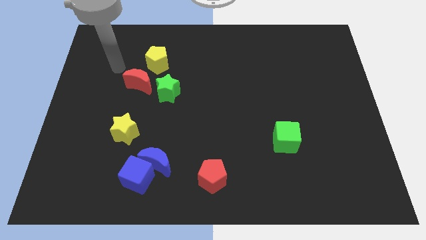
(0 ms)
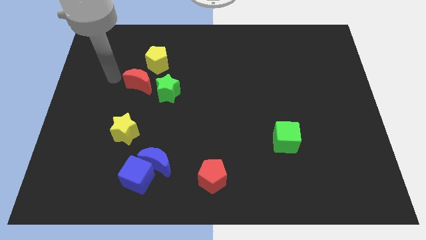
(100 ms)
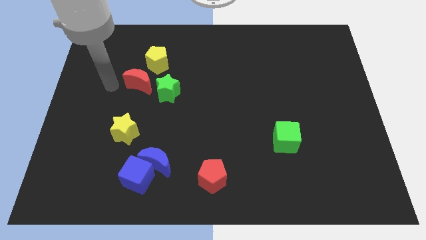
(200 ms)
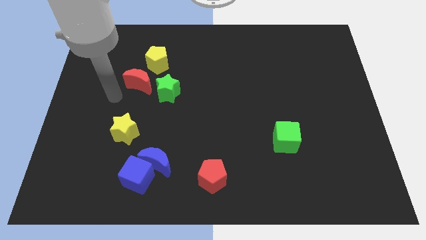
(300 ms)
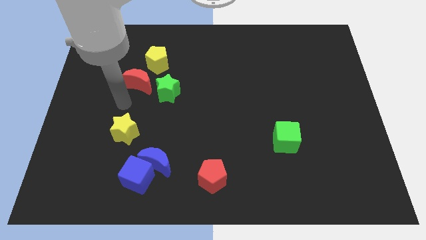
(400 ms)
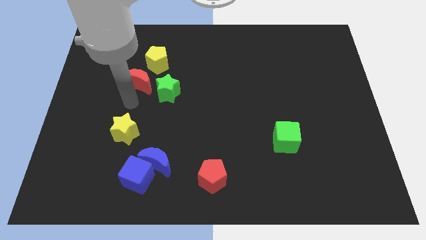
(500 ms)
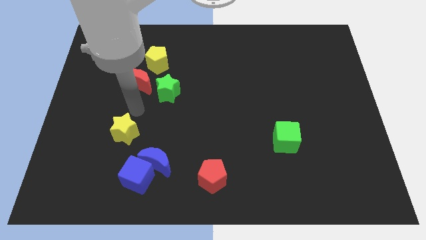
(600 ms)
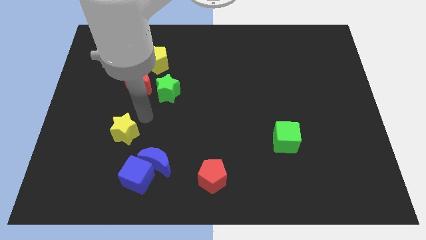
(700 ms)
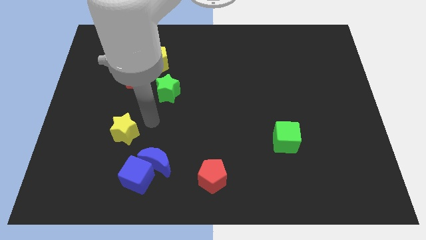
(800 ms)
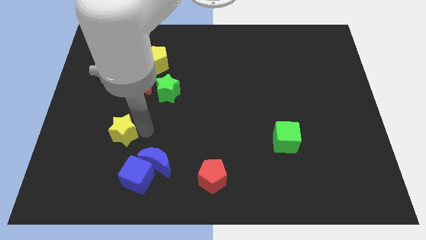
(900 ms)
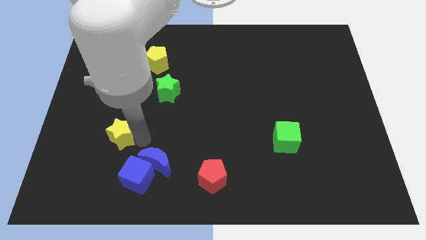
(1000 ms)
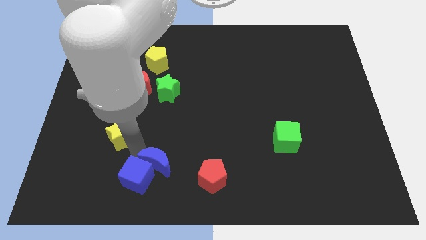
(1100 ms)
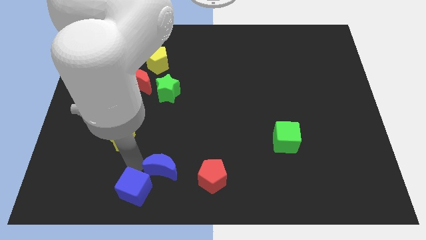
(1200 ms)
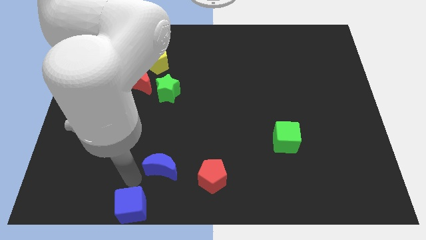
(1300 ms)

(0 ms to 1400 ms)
move the blue moon away from the blue cube

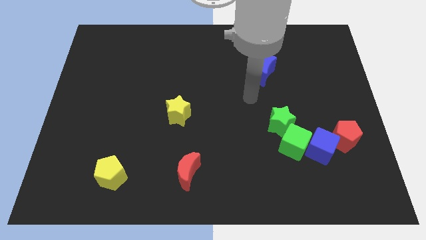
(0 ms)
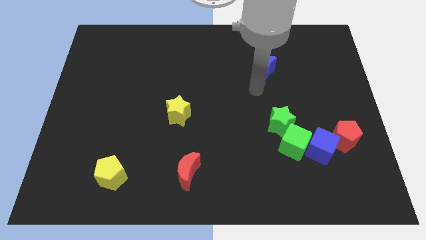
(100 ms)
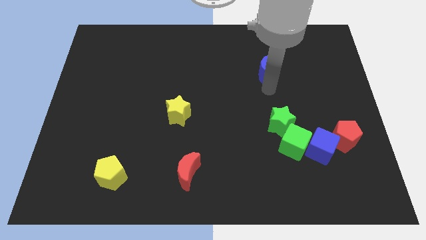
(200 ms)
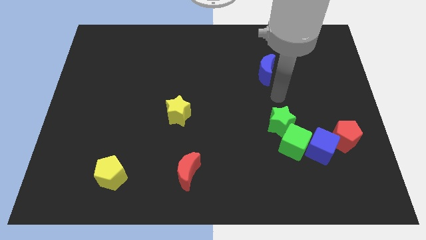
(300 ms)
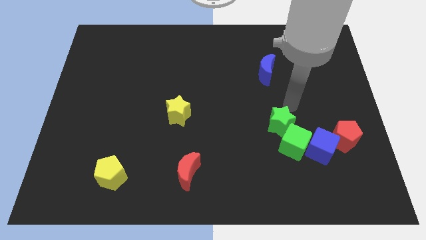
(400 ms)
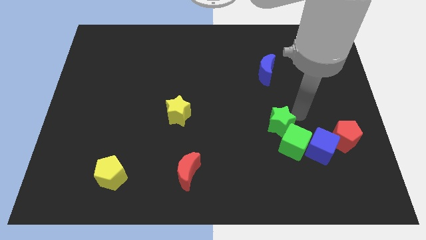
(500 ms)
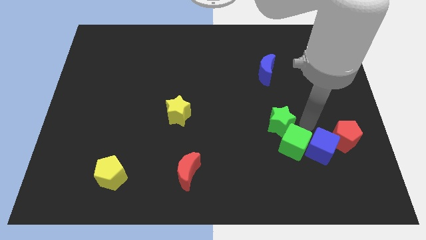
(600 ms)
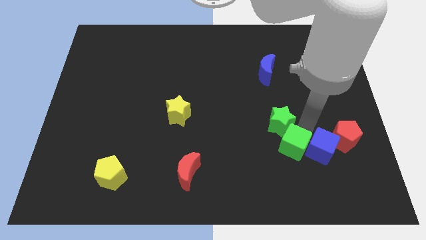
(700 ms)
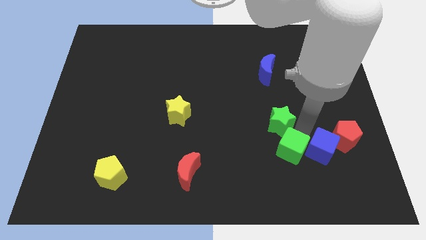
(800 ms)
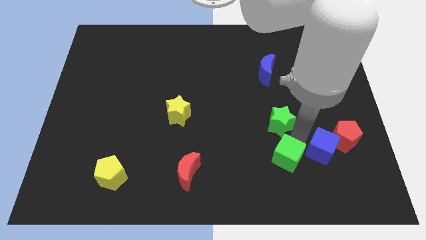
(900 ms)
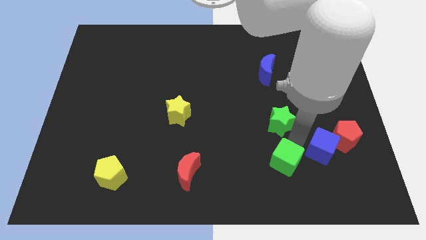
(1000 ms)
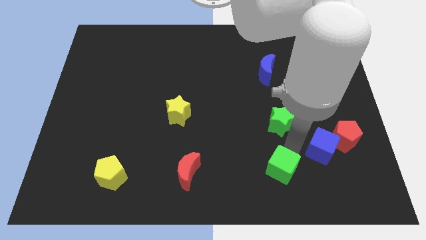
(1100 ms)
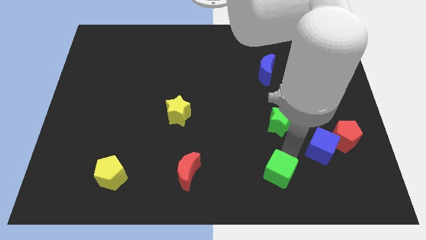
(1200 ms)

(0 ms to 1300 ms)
move the green cube away from the blue cube and green star

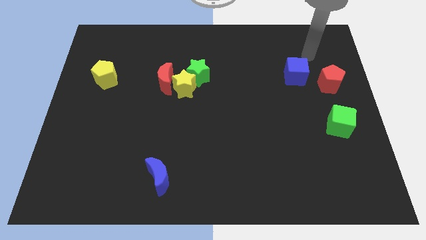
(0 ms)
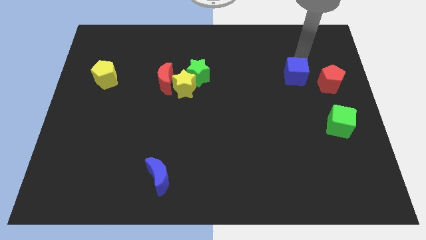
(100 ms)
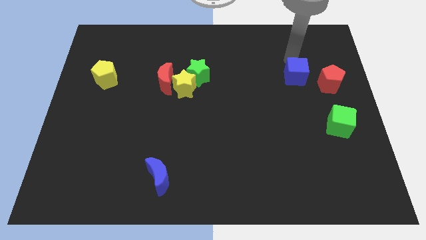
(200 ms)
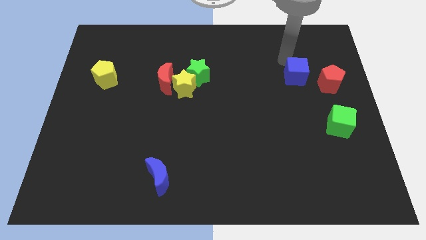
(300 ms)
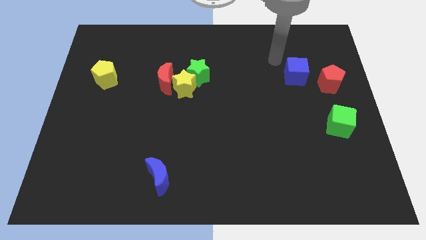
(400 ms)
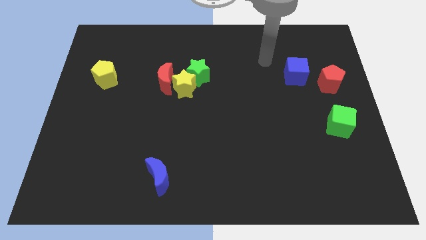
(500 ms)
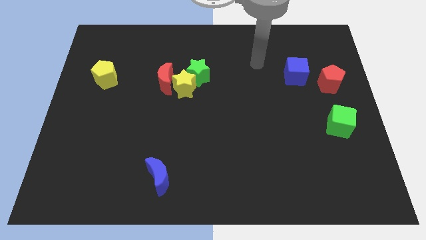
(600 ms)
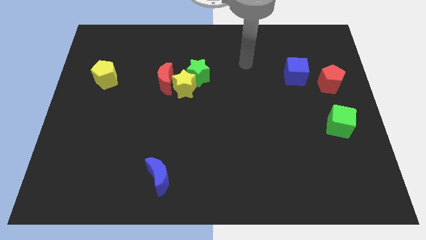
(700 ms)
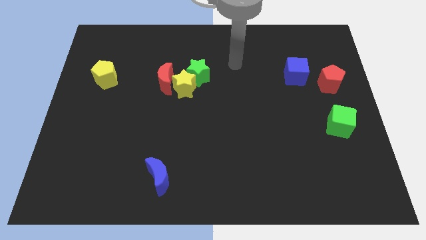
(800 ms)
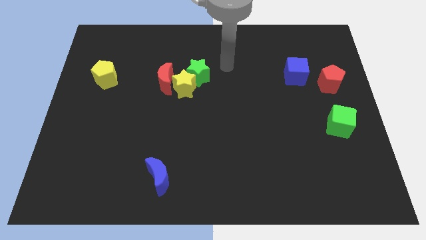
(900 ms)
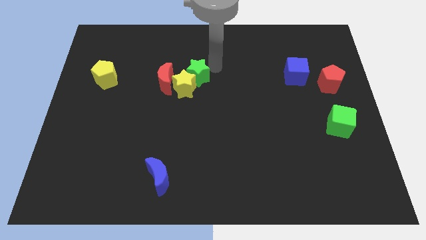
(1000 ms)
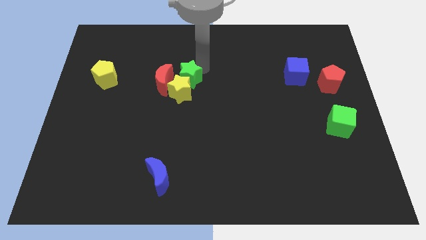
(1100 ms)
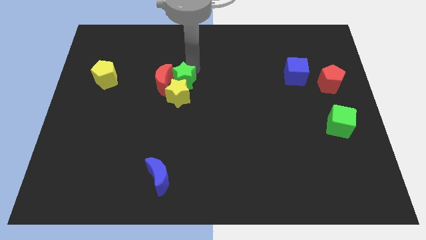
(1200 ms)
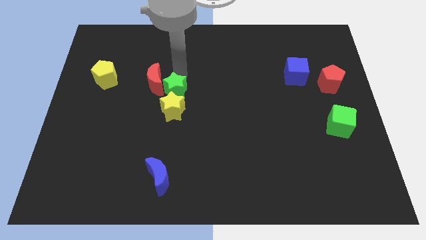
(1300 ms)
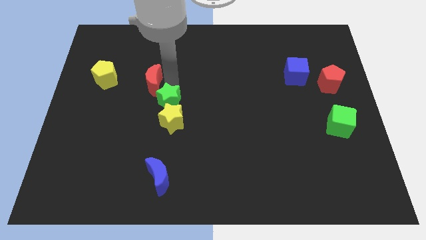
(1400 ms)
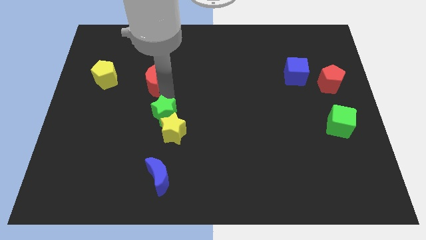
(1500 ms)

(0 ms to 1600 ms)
move the yellow star away from the red moon and green star

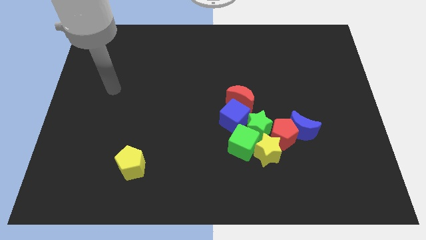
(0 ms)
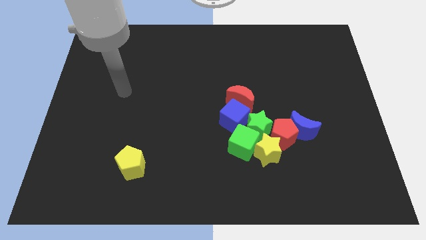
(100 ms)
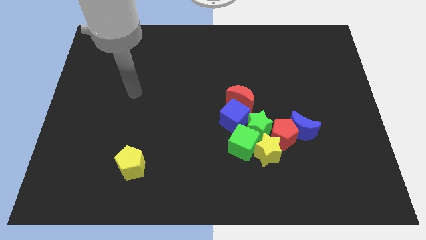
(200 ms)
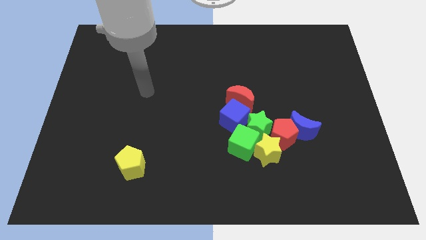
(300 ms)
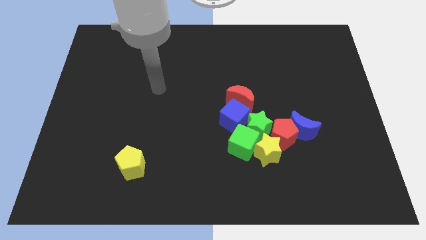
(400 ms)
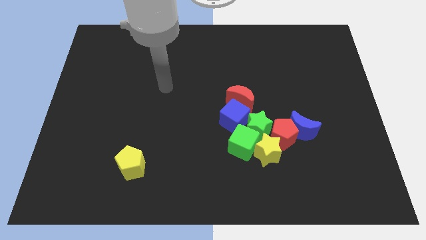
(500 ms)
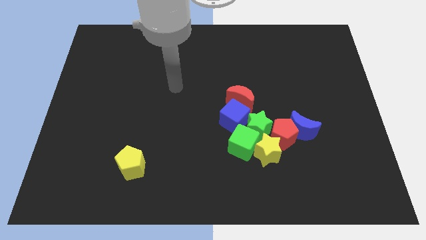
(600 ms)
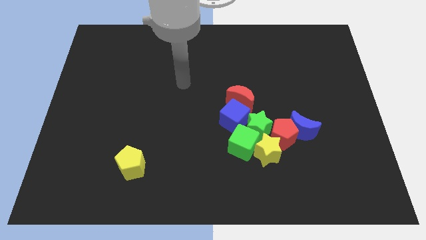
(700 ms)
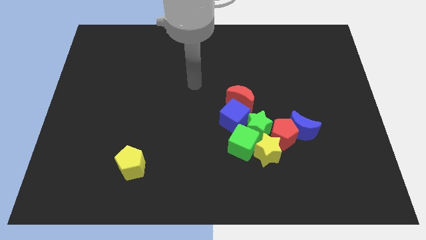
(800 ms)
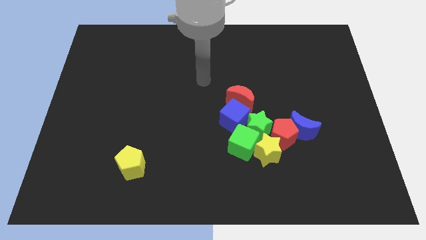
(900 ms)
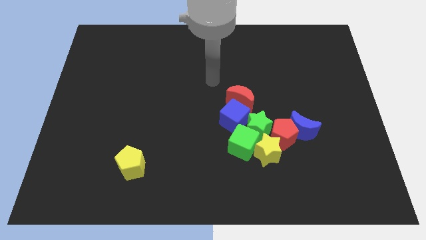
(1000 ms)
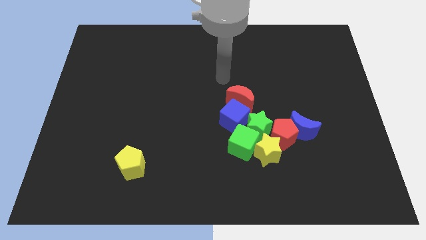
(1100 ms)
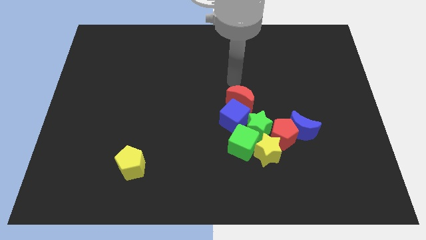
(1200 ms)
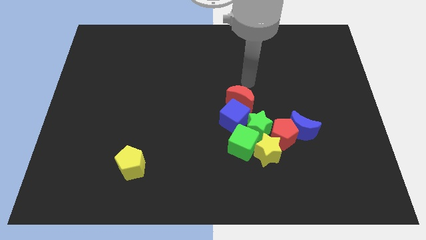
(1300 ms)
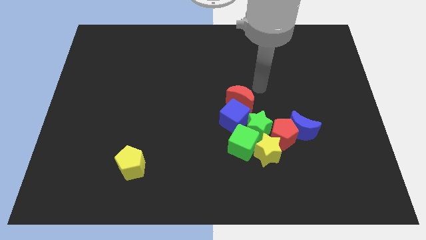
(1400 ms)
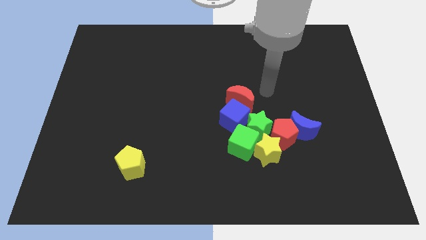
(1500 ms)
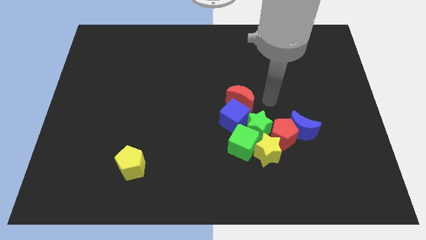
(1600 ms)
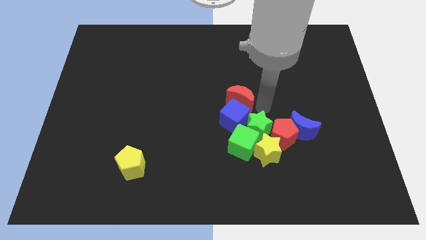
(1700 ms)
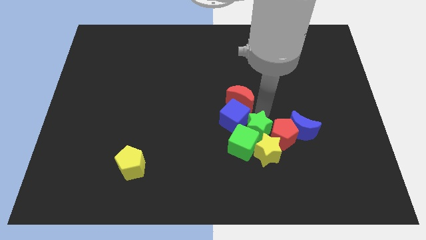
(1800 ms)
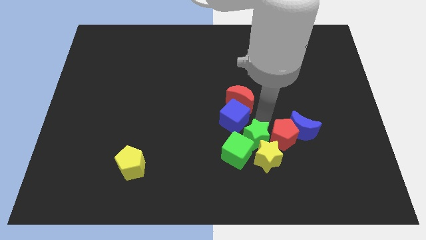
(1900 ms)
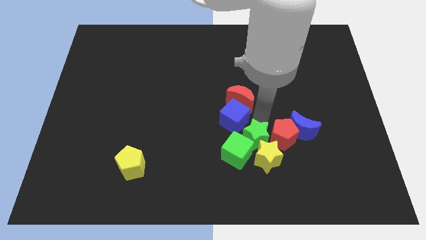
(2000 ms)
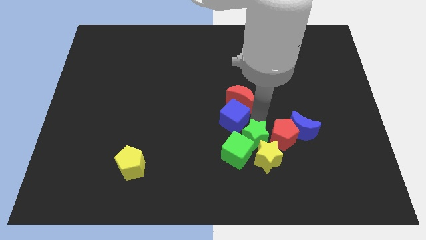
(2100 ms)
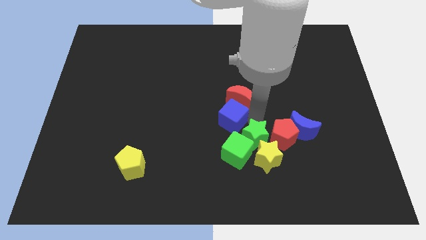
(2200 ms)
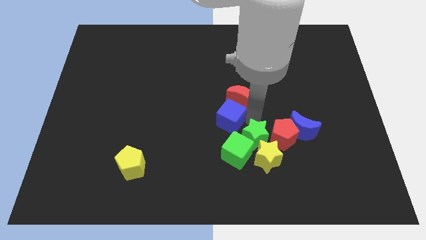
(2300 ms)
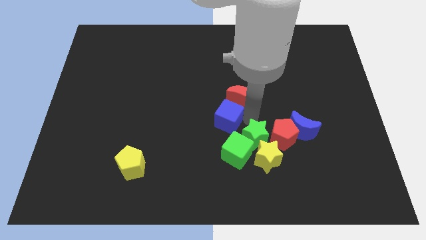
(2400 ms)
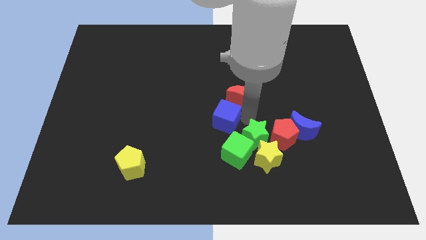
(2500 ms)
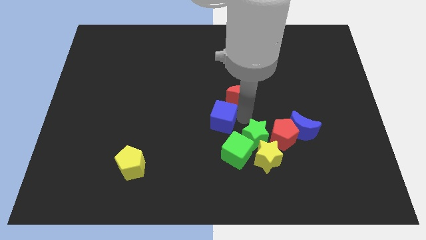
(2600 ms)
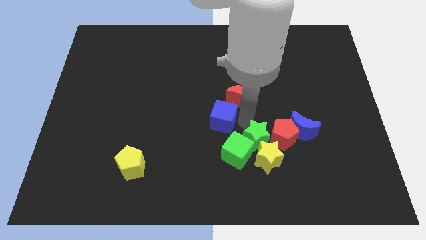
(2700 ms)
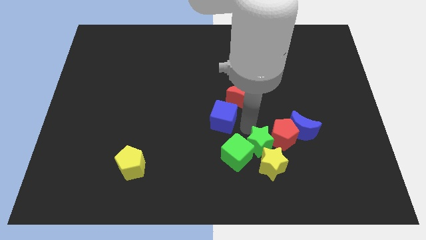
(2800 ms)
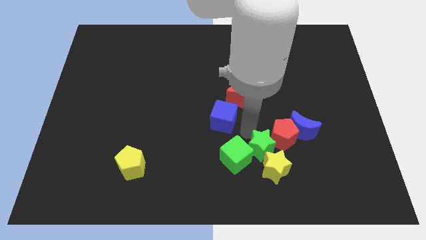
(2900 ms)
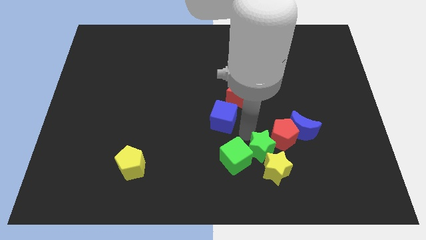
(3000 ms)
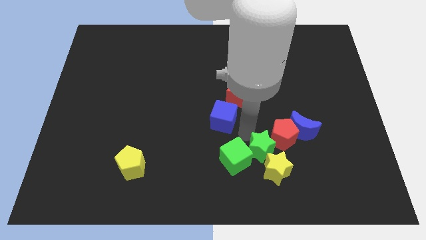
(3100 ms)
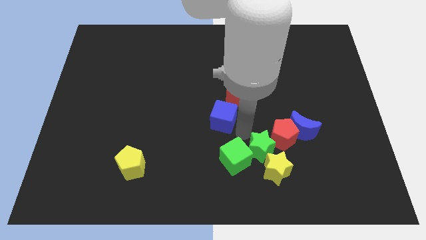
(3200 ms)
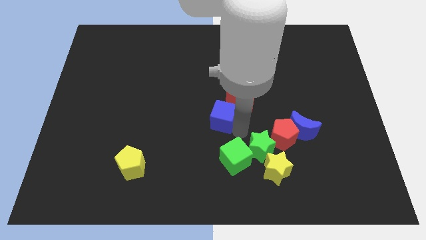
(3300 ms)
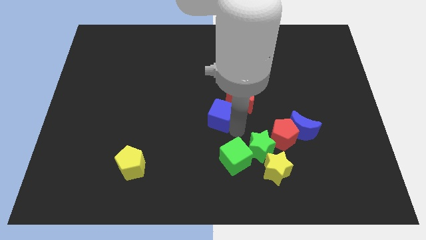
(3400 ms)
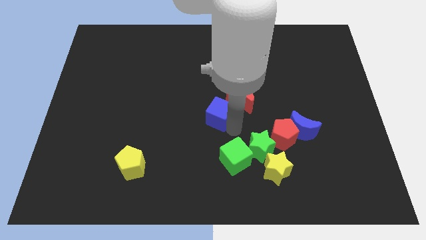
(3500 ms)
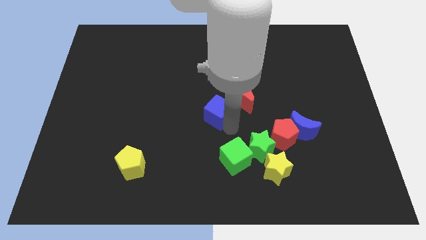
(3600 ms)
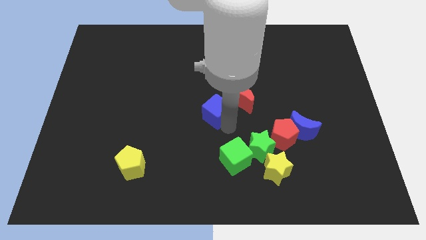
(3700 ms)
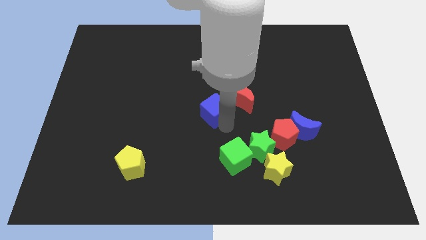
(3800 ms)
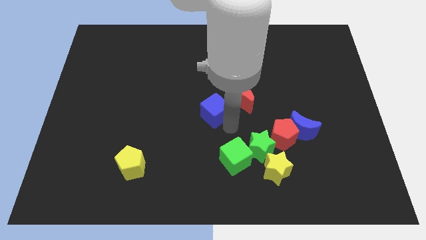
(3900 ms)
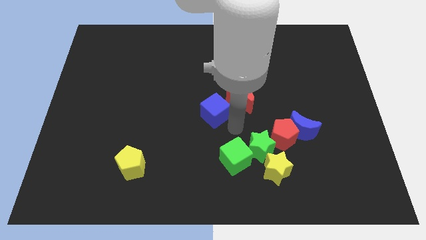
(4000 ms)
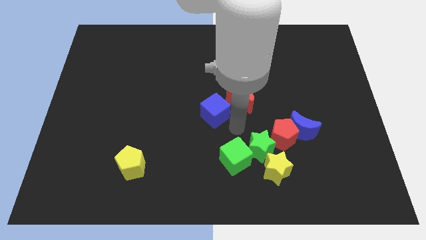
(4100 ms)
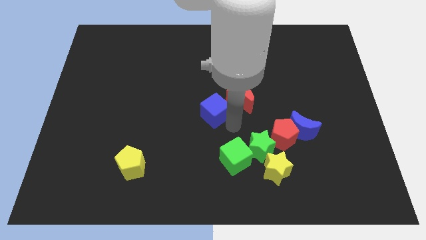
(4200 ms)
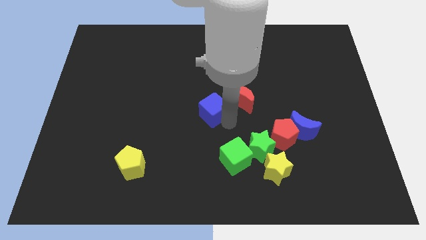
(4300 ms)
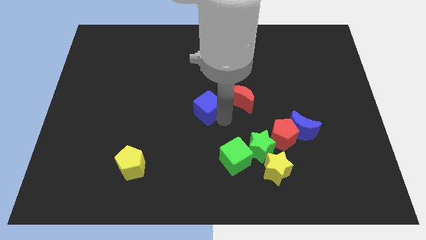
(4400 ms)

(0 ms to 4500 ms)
pull the blue cube apart from the green star, red moon, and green cube

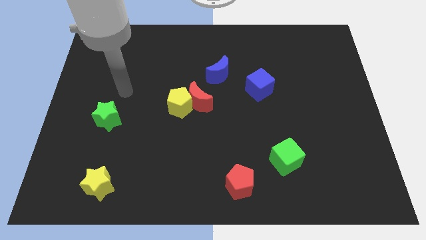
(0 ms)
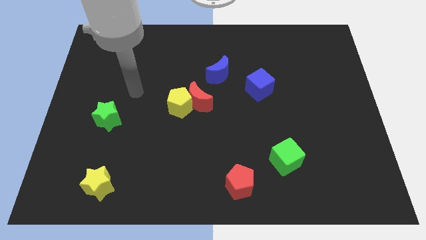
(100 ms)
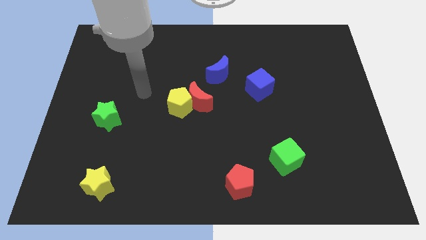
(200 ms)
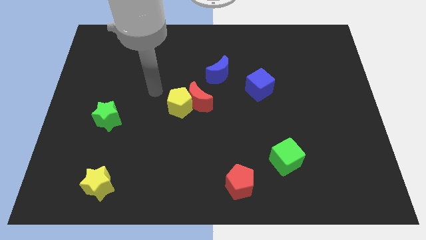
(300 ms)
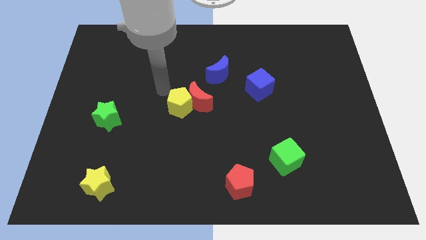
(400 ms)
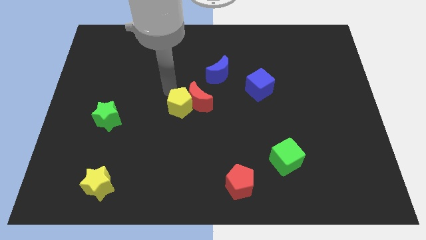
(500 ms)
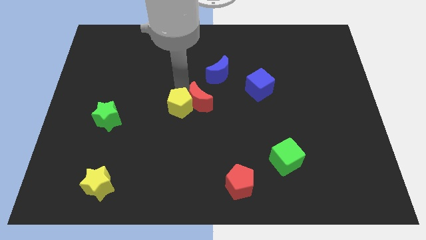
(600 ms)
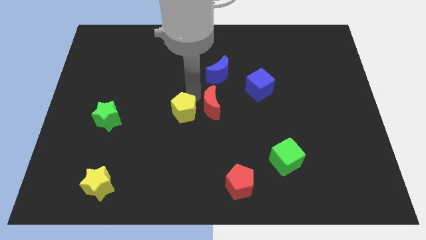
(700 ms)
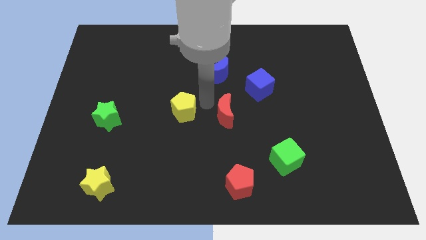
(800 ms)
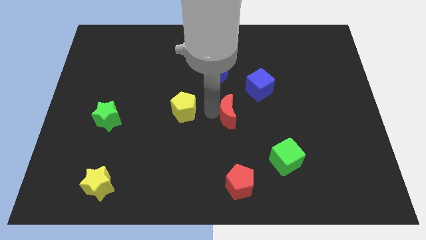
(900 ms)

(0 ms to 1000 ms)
pull the yellow pentagon apart from the red moon
